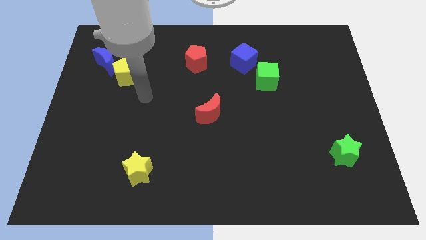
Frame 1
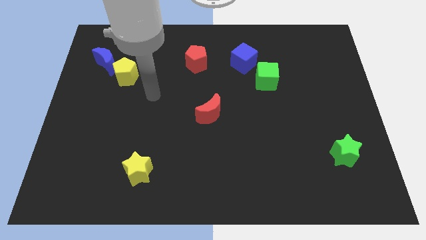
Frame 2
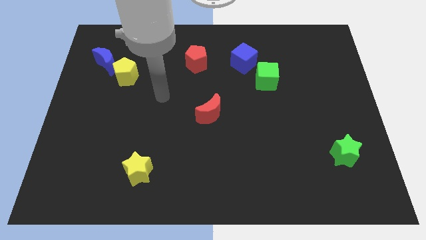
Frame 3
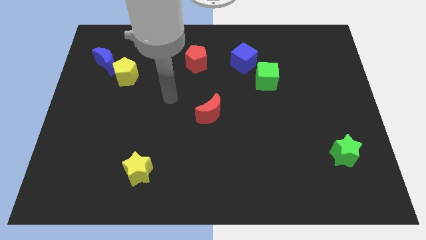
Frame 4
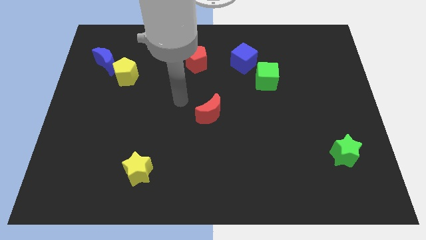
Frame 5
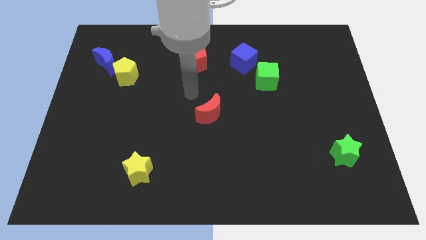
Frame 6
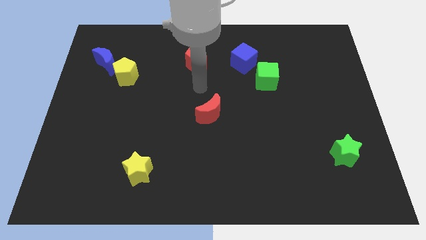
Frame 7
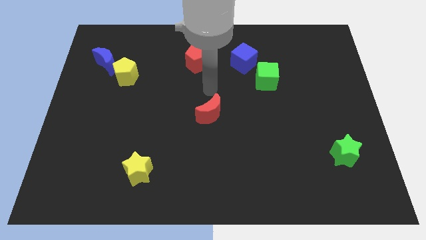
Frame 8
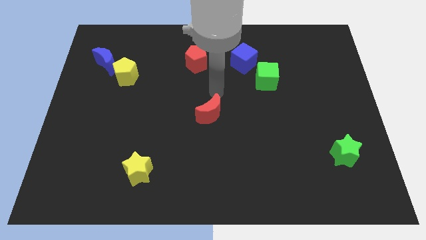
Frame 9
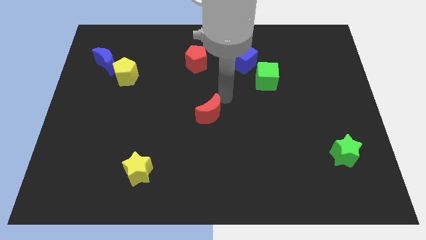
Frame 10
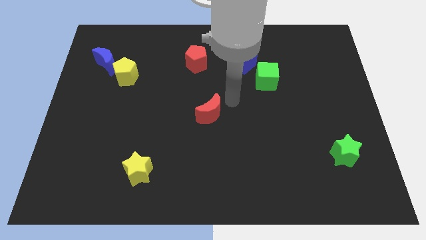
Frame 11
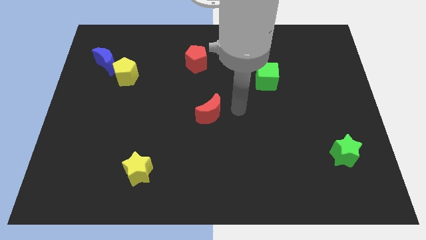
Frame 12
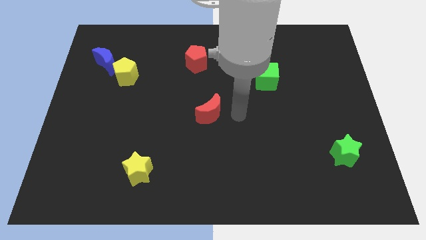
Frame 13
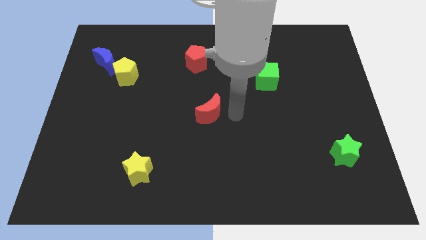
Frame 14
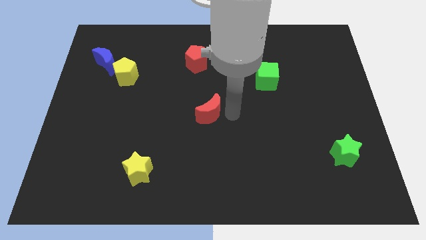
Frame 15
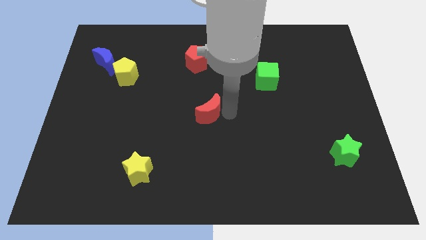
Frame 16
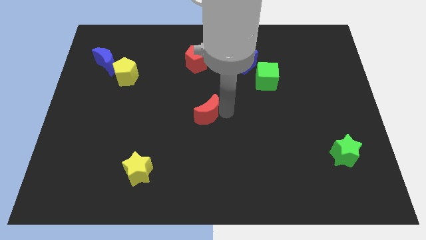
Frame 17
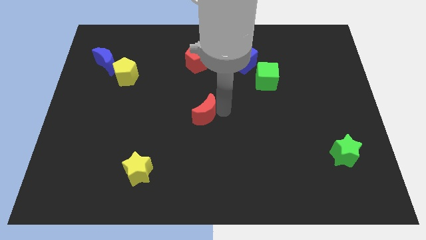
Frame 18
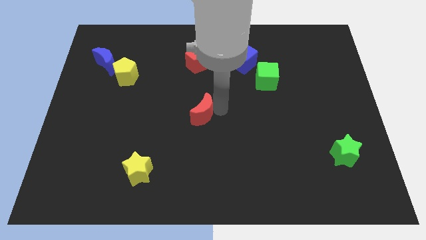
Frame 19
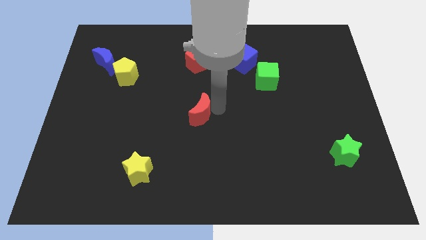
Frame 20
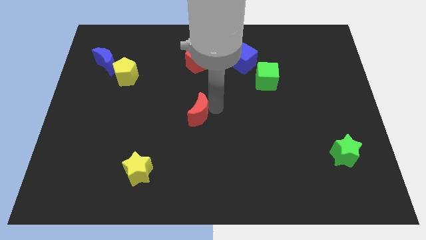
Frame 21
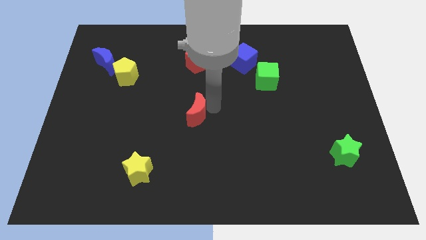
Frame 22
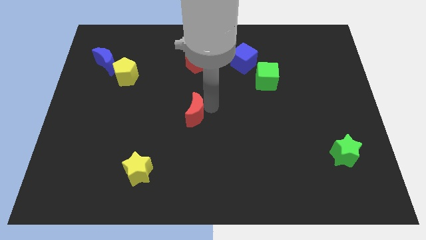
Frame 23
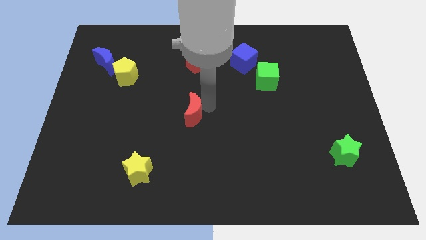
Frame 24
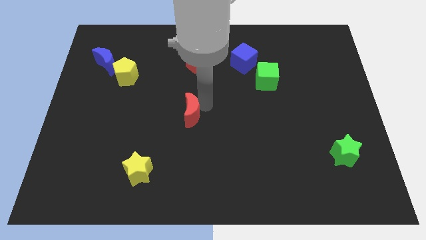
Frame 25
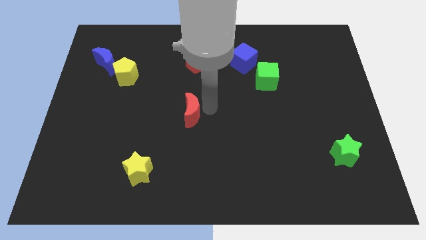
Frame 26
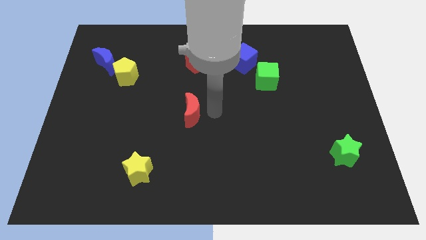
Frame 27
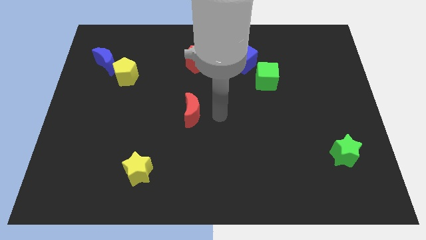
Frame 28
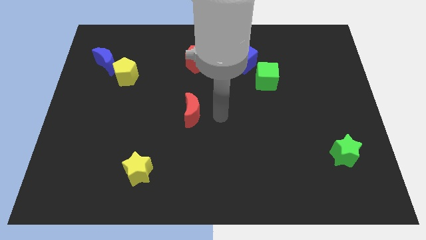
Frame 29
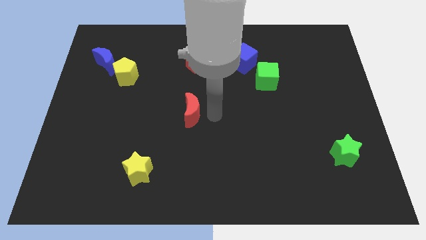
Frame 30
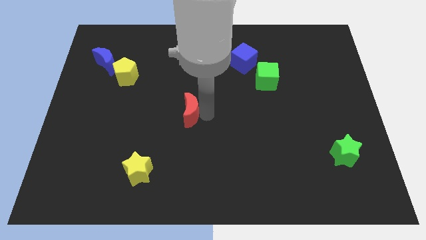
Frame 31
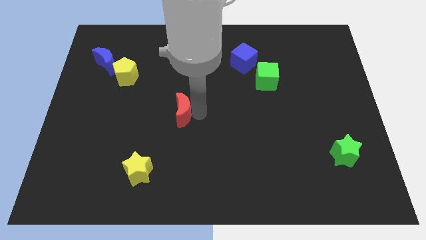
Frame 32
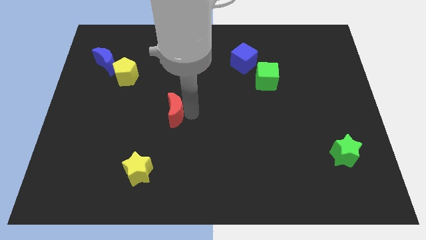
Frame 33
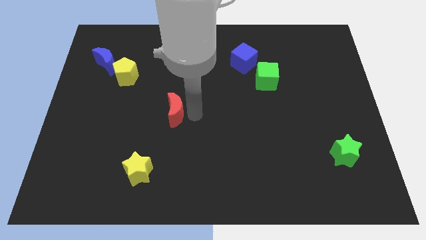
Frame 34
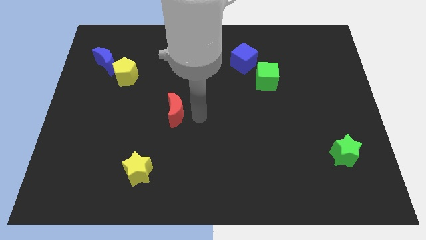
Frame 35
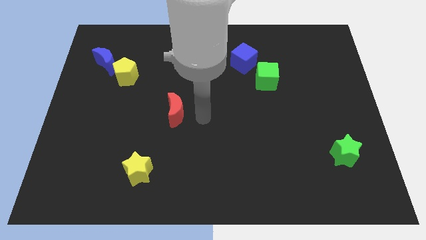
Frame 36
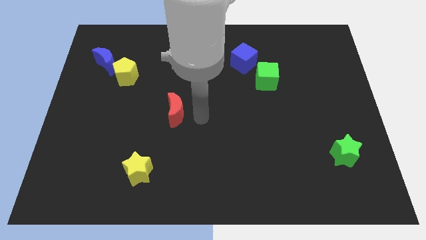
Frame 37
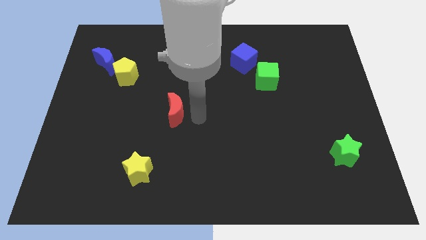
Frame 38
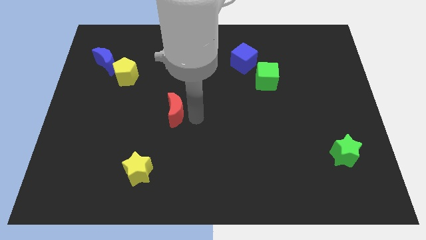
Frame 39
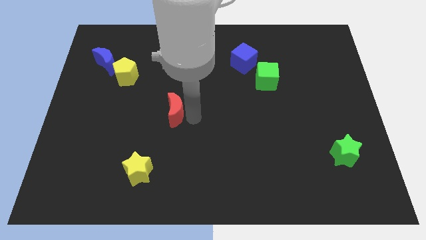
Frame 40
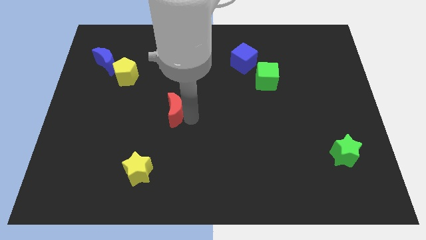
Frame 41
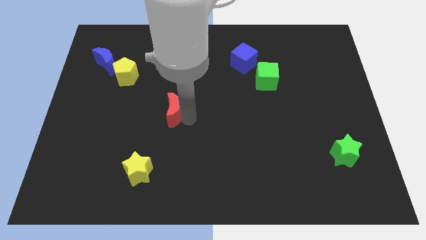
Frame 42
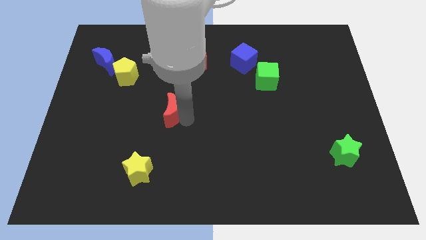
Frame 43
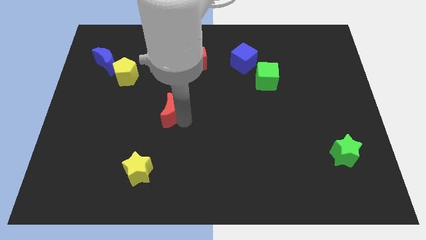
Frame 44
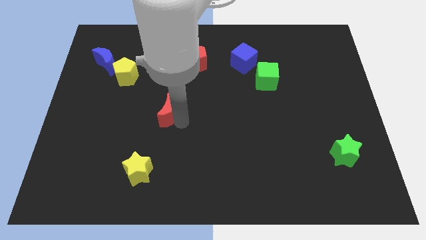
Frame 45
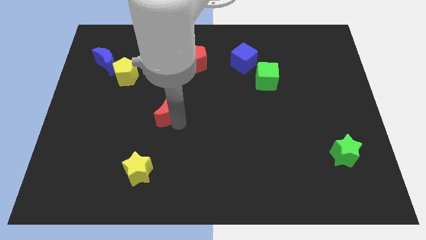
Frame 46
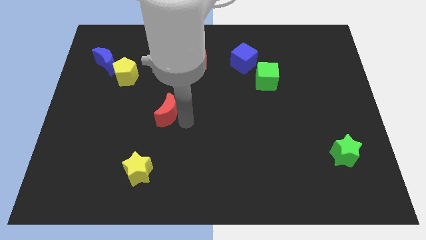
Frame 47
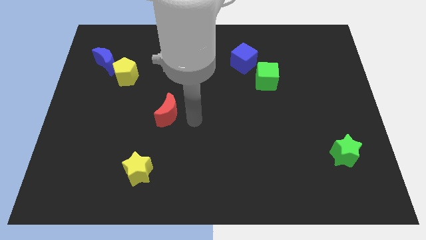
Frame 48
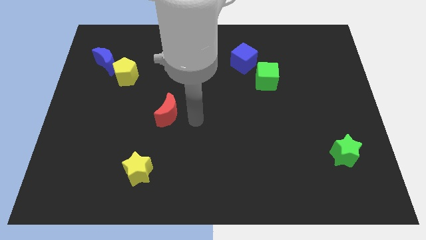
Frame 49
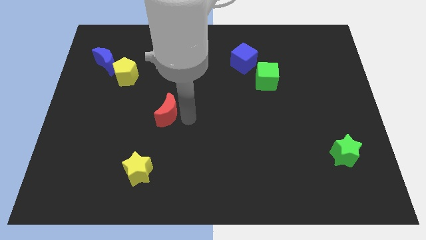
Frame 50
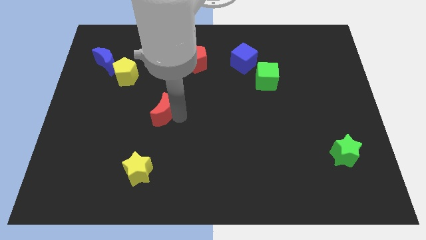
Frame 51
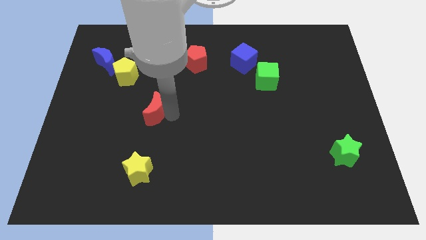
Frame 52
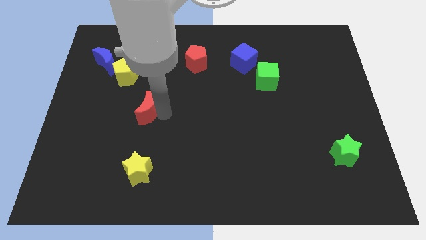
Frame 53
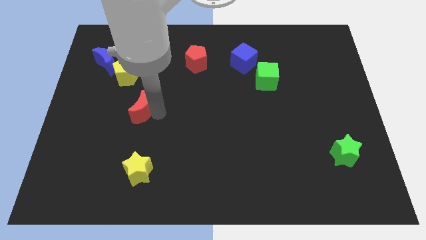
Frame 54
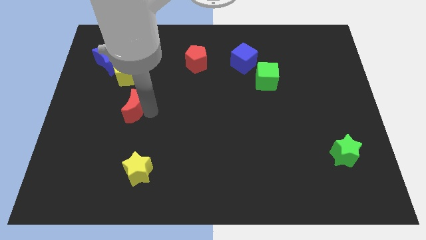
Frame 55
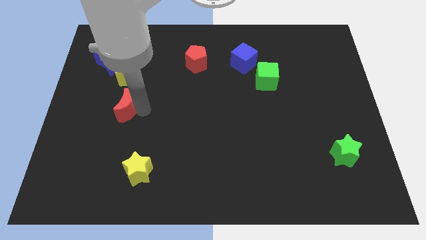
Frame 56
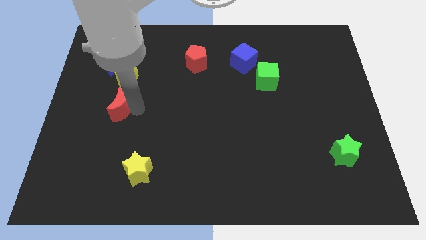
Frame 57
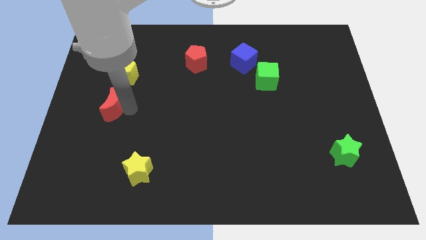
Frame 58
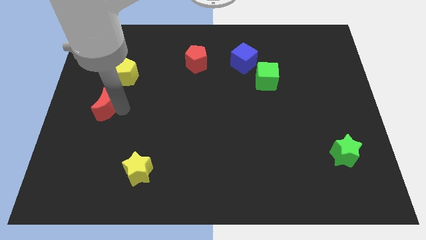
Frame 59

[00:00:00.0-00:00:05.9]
move the red moon to the center left

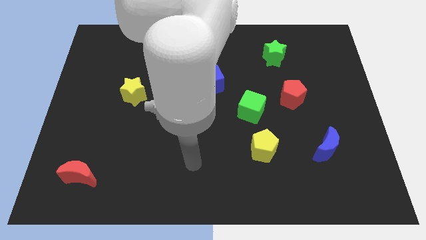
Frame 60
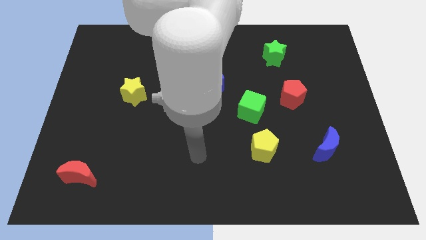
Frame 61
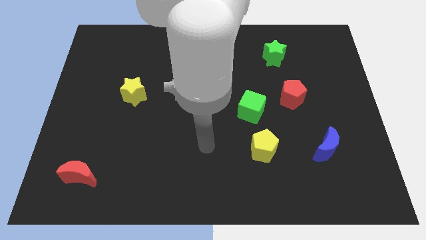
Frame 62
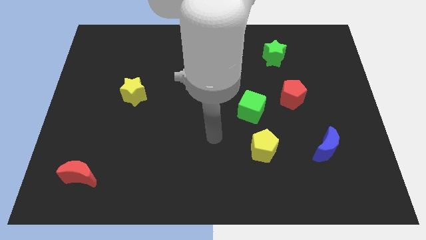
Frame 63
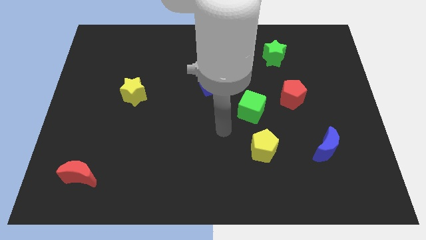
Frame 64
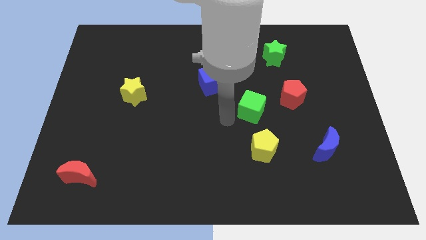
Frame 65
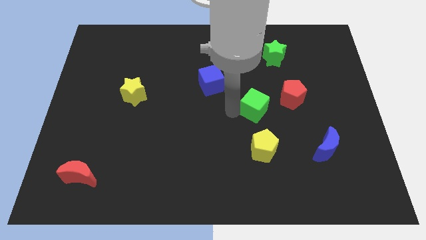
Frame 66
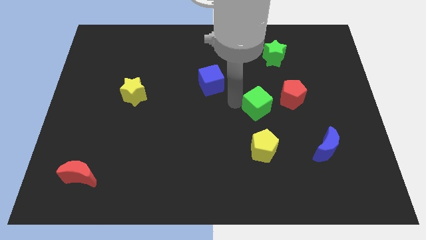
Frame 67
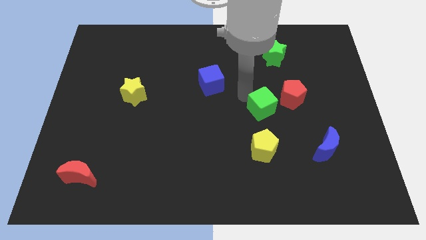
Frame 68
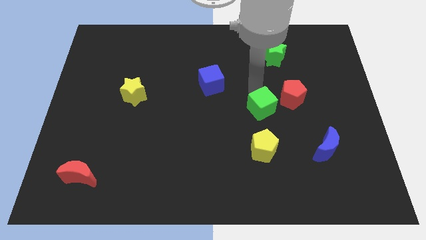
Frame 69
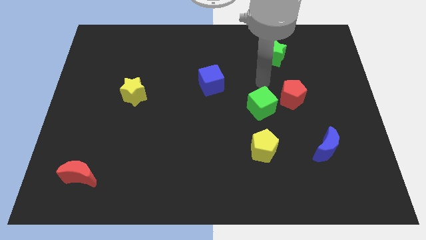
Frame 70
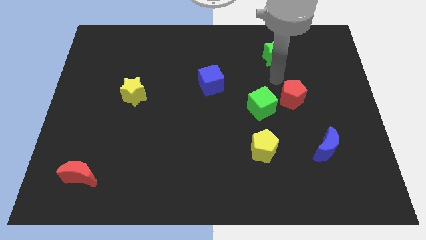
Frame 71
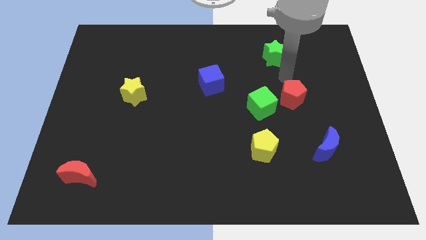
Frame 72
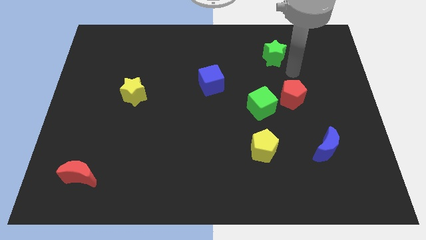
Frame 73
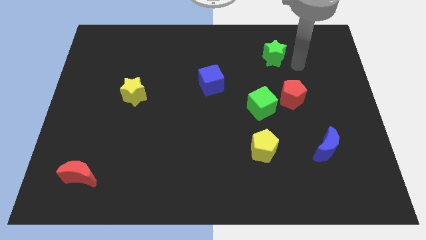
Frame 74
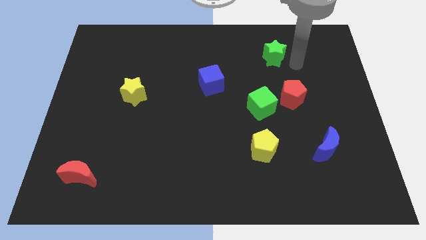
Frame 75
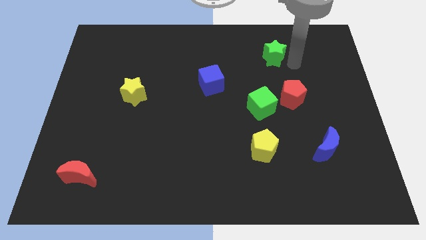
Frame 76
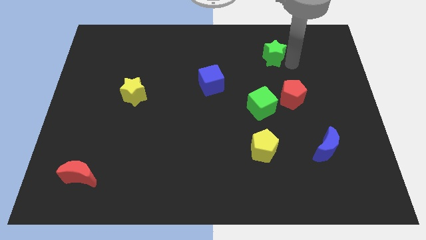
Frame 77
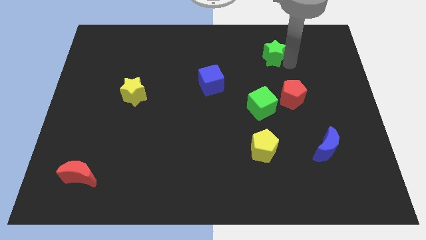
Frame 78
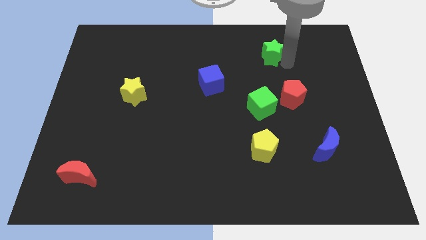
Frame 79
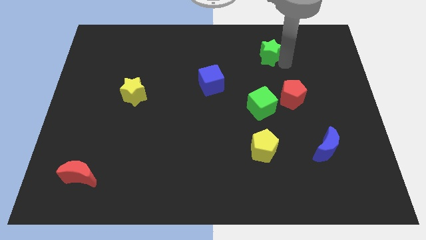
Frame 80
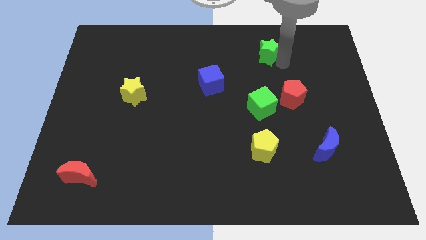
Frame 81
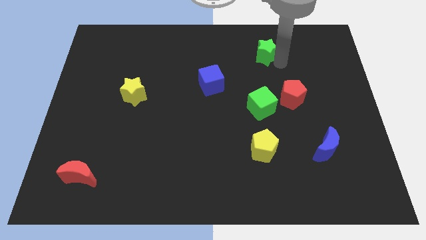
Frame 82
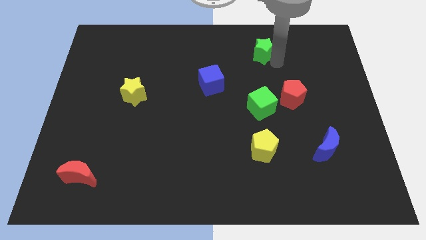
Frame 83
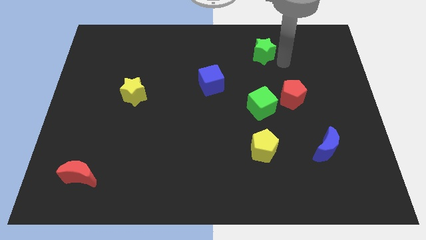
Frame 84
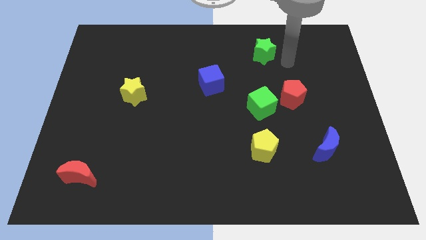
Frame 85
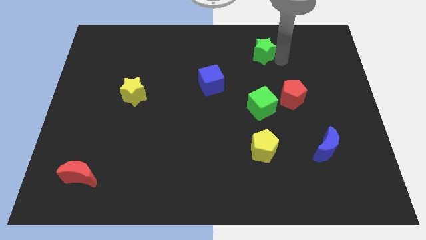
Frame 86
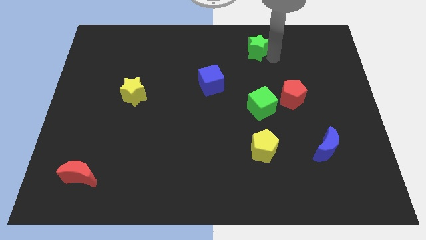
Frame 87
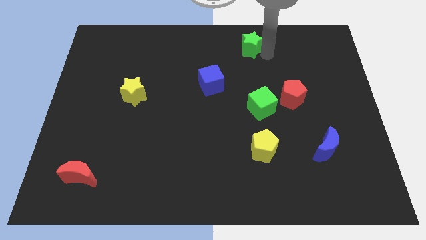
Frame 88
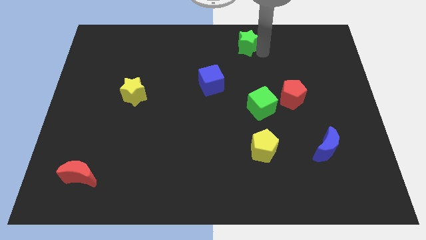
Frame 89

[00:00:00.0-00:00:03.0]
slide the green star to the top side
